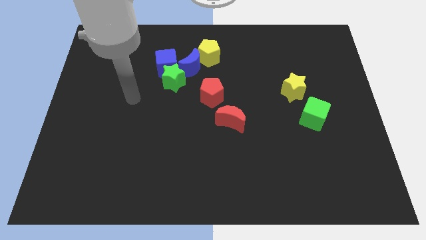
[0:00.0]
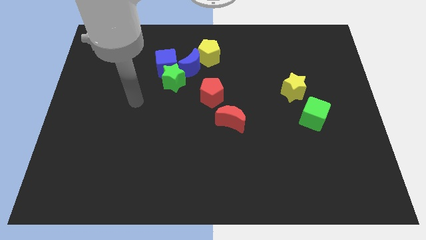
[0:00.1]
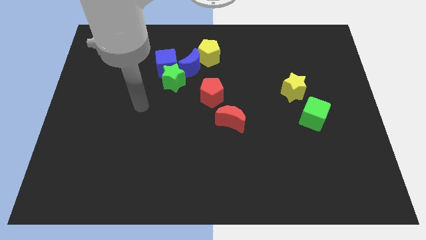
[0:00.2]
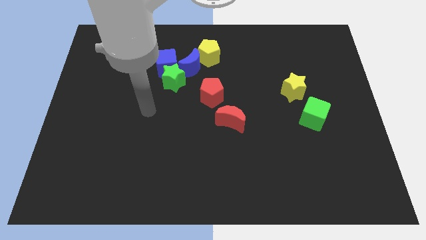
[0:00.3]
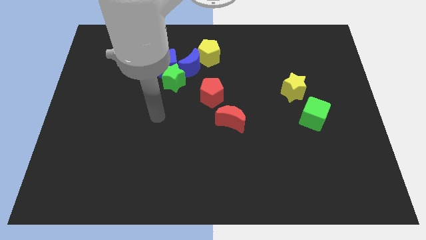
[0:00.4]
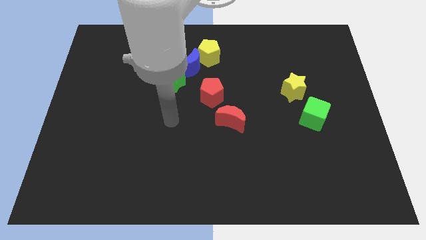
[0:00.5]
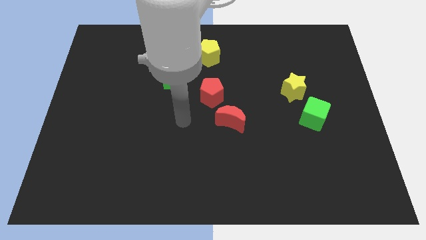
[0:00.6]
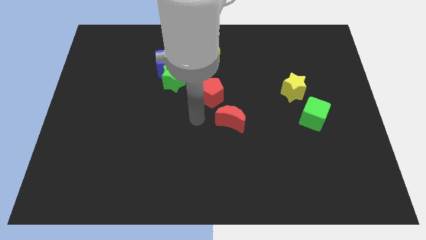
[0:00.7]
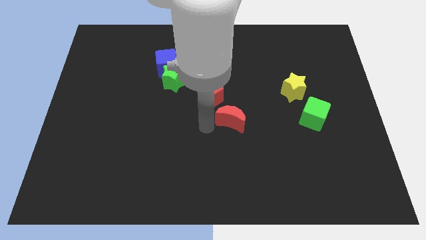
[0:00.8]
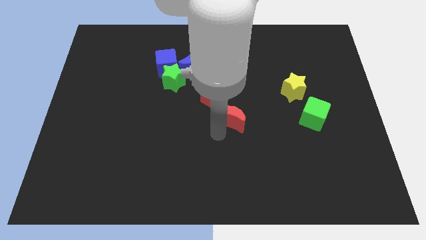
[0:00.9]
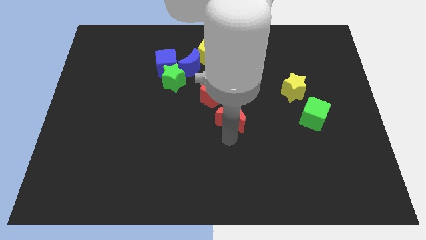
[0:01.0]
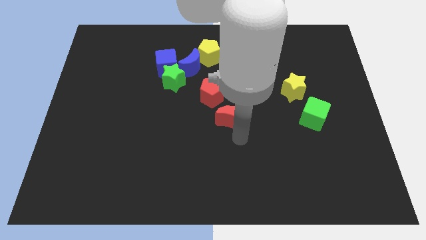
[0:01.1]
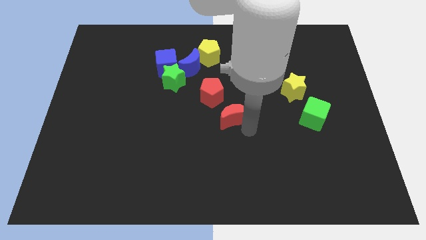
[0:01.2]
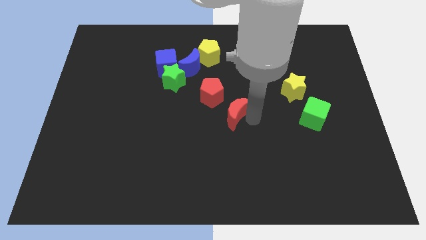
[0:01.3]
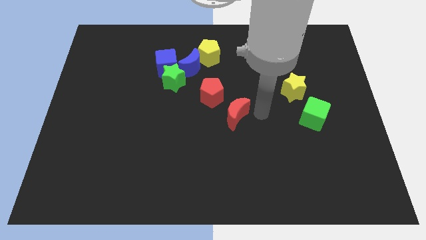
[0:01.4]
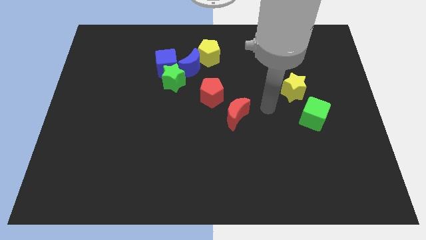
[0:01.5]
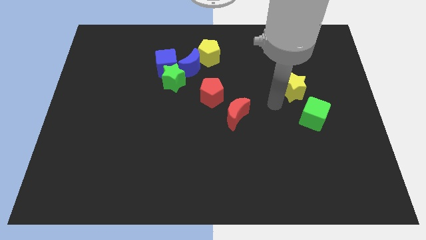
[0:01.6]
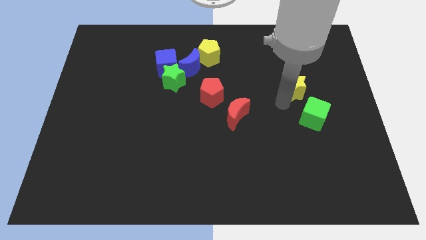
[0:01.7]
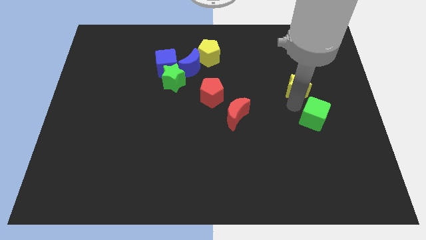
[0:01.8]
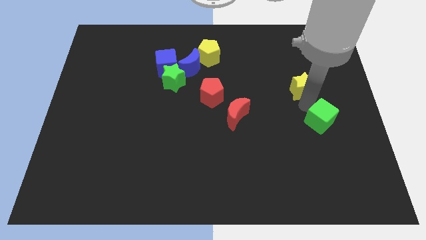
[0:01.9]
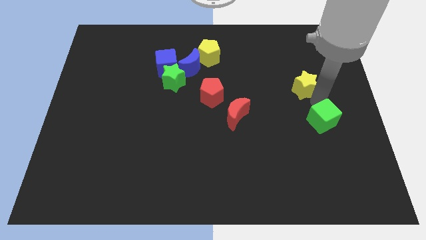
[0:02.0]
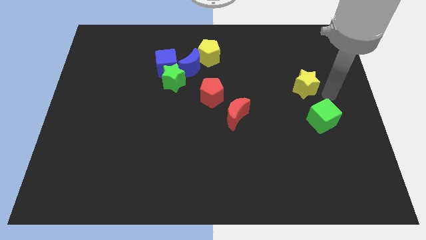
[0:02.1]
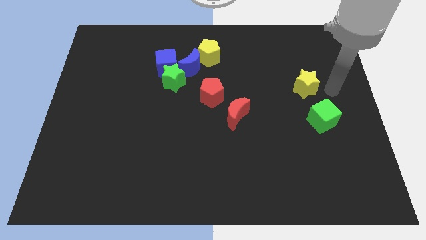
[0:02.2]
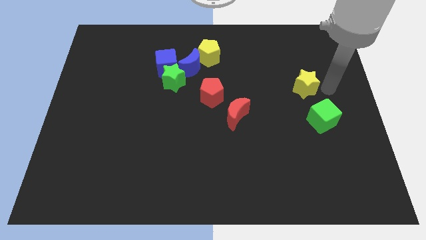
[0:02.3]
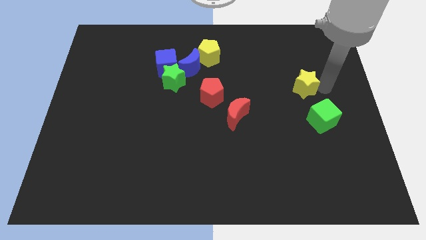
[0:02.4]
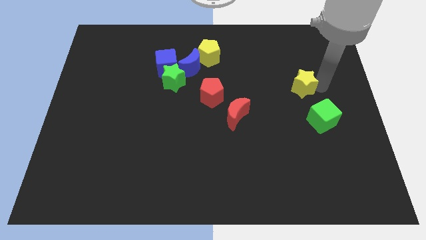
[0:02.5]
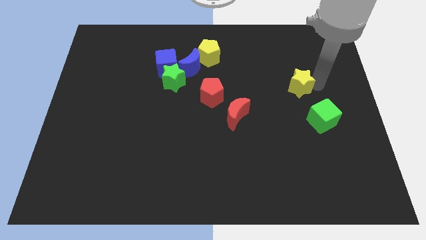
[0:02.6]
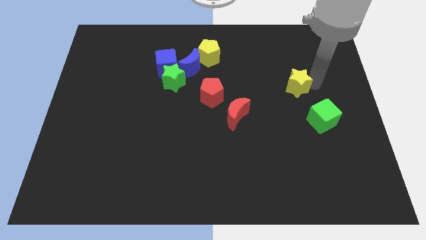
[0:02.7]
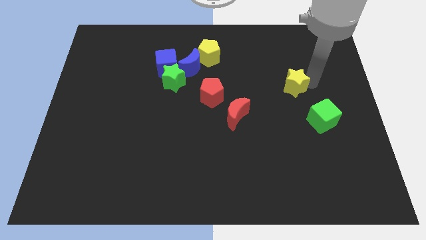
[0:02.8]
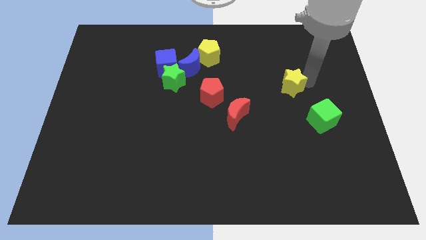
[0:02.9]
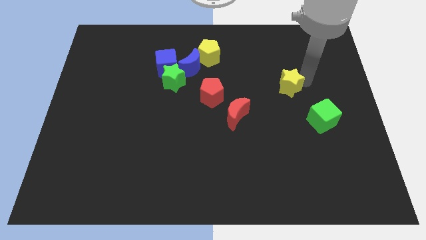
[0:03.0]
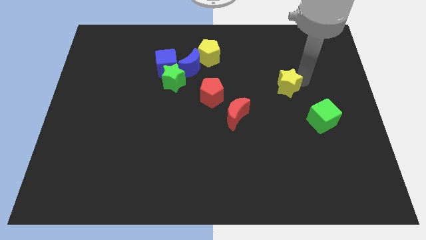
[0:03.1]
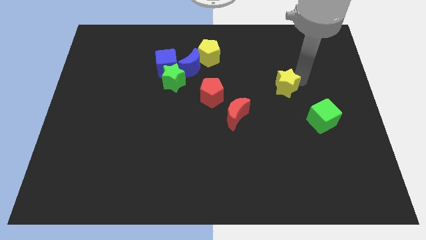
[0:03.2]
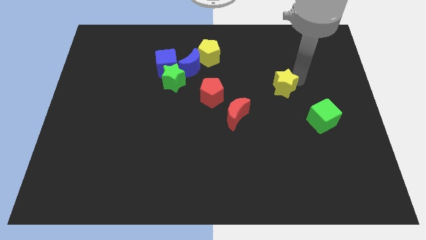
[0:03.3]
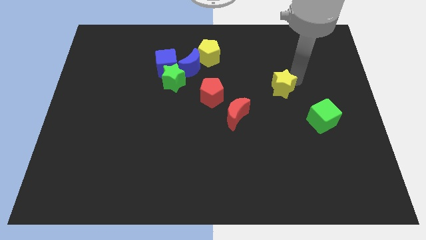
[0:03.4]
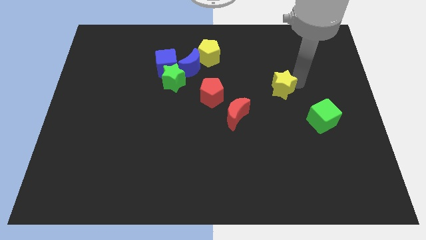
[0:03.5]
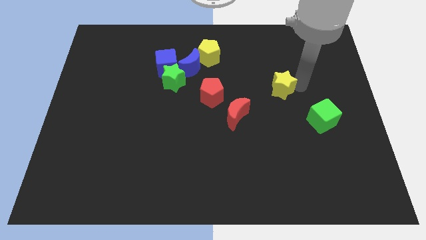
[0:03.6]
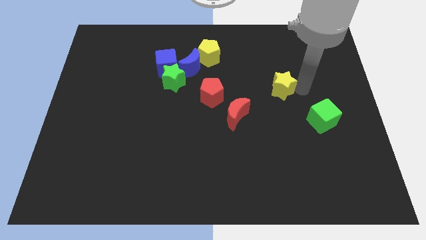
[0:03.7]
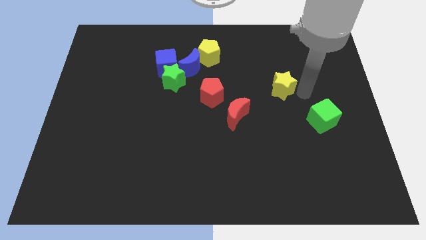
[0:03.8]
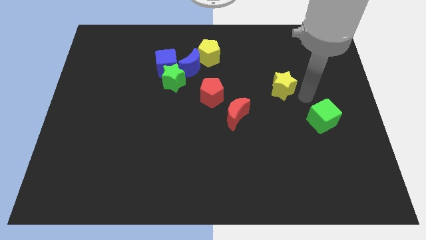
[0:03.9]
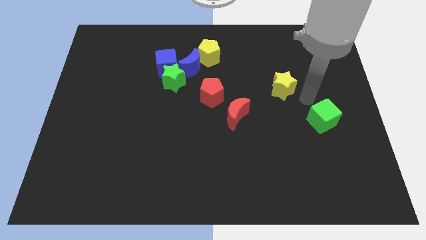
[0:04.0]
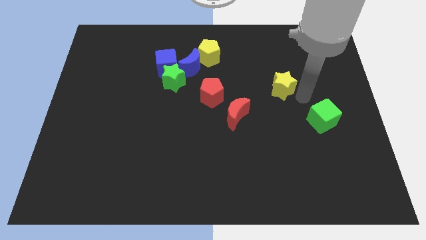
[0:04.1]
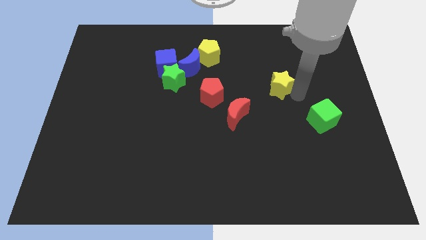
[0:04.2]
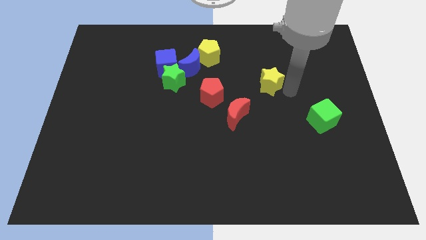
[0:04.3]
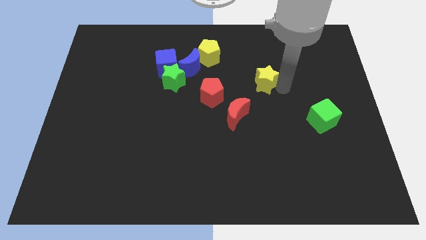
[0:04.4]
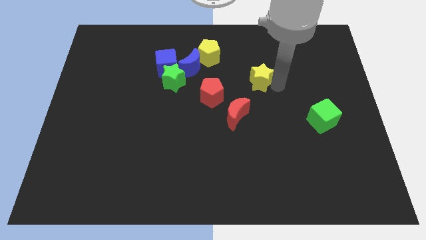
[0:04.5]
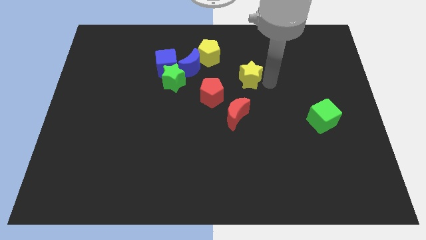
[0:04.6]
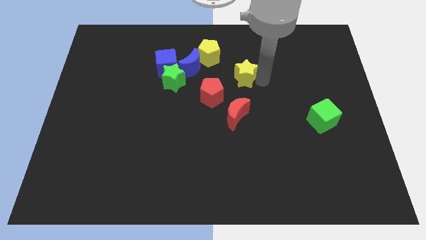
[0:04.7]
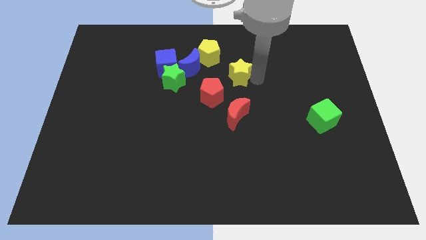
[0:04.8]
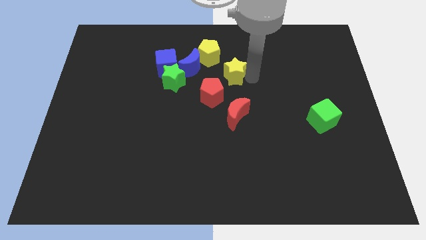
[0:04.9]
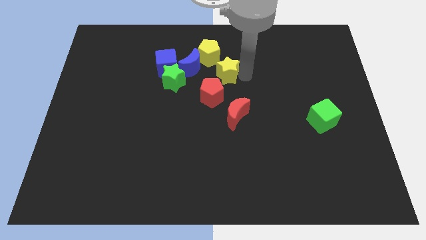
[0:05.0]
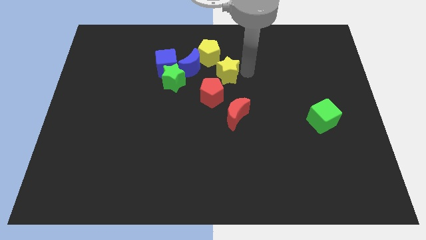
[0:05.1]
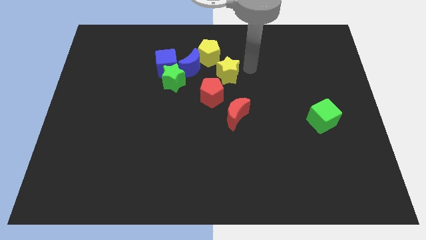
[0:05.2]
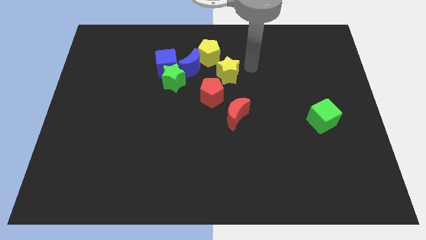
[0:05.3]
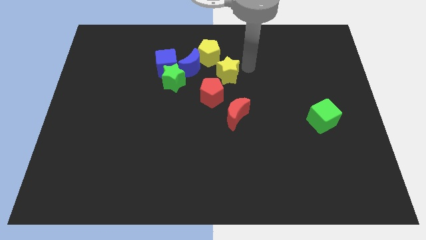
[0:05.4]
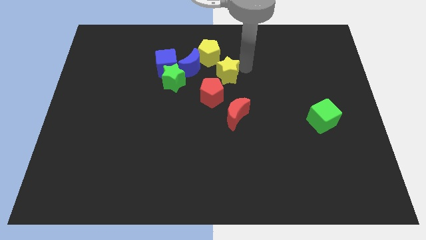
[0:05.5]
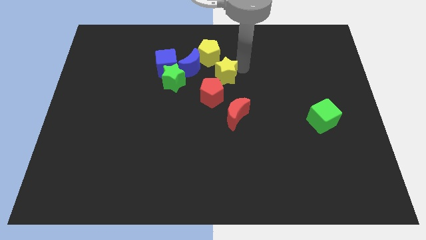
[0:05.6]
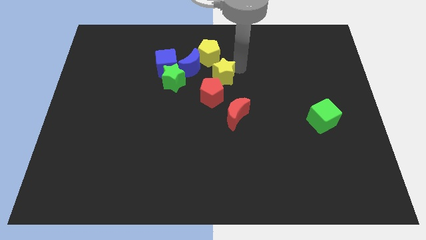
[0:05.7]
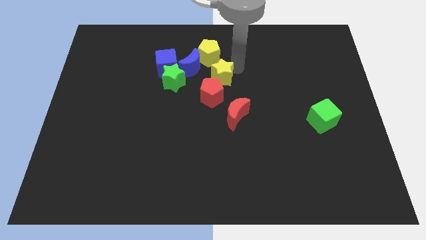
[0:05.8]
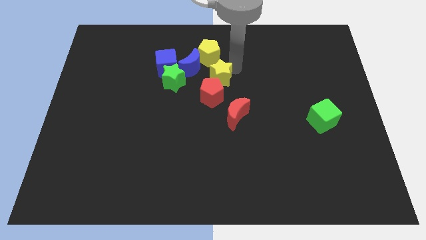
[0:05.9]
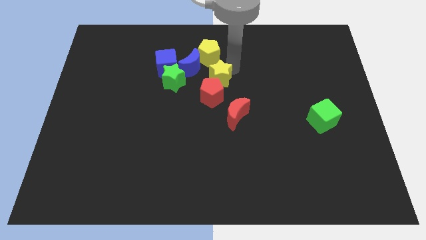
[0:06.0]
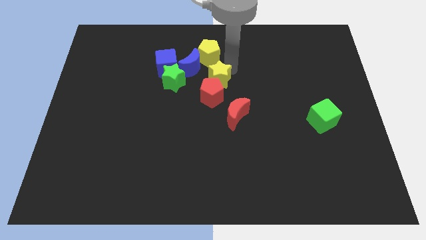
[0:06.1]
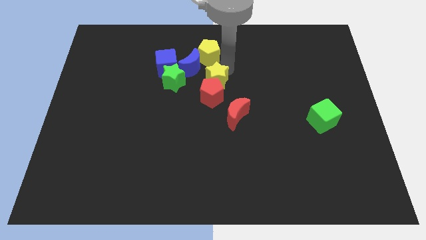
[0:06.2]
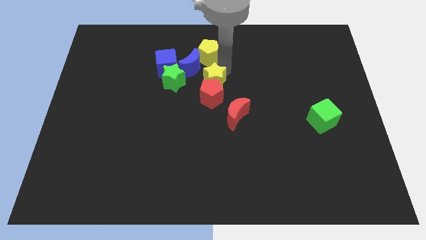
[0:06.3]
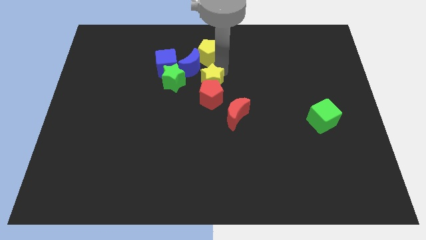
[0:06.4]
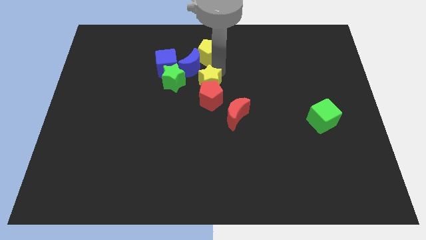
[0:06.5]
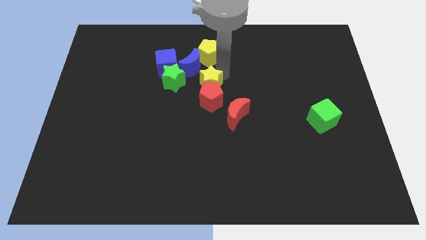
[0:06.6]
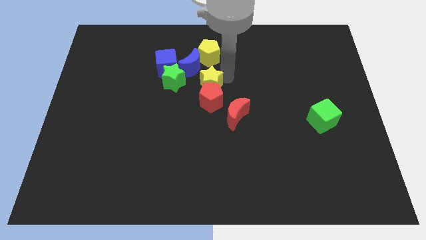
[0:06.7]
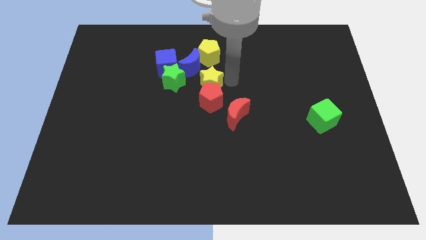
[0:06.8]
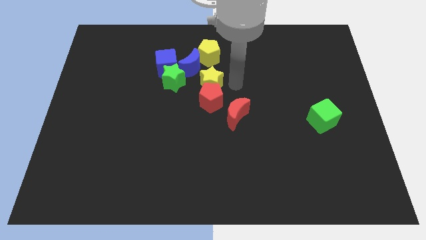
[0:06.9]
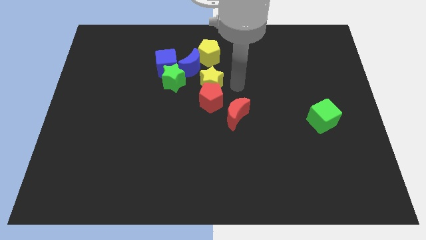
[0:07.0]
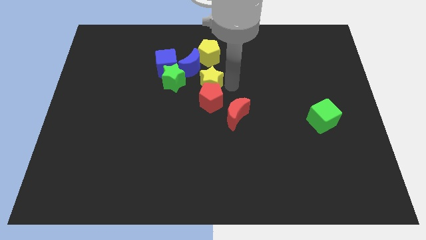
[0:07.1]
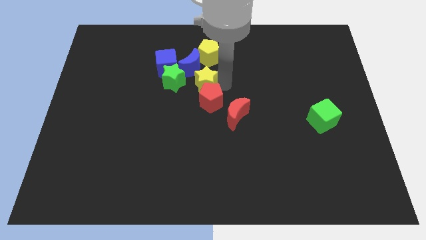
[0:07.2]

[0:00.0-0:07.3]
push the yellow star to the bottom right side of the blue cube
